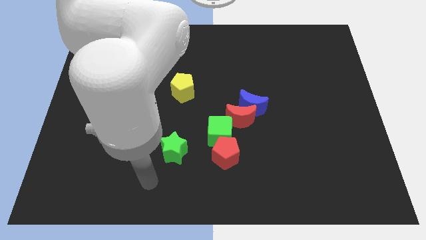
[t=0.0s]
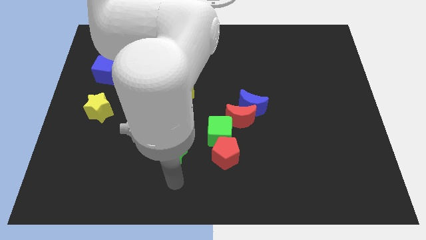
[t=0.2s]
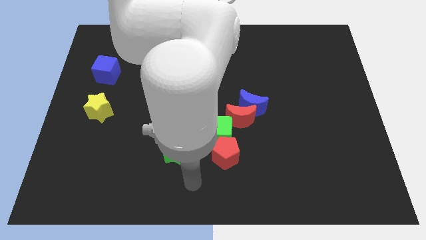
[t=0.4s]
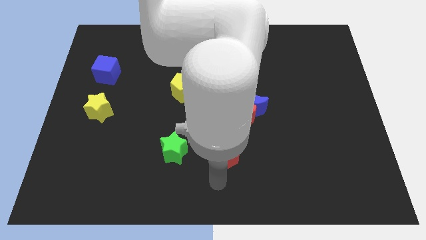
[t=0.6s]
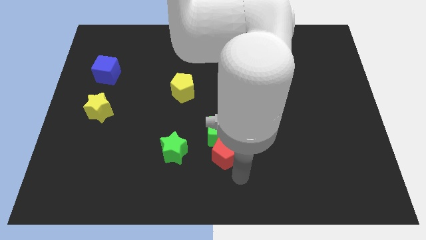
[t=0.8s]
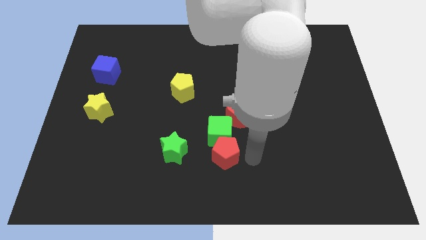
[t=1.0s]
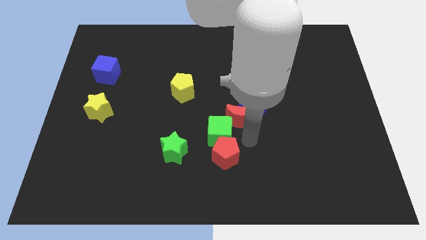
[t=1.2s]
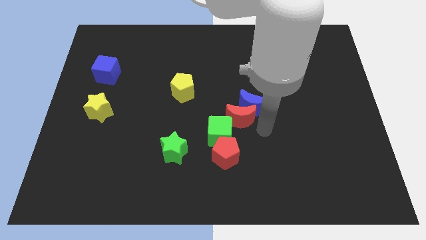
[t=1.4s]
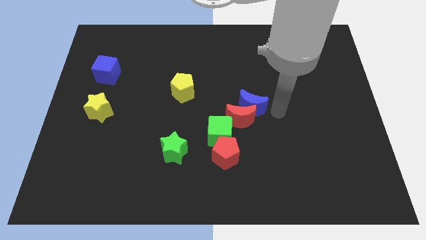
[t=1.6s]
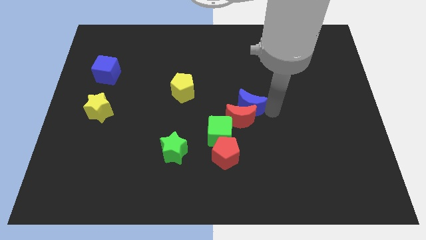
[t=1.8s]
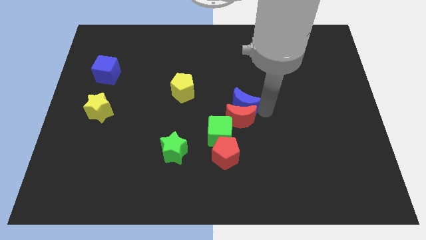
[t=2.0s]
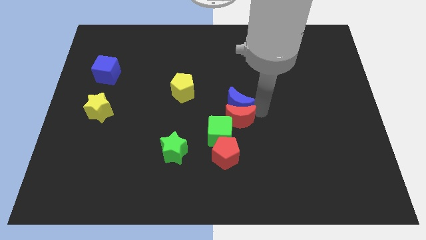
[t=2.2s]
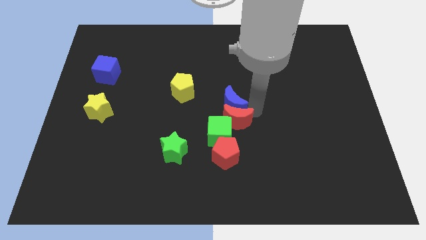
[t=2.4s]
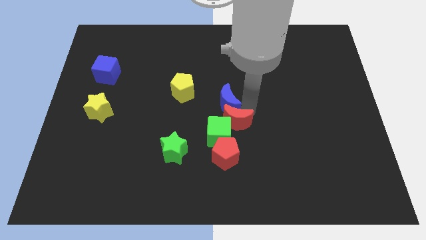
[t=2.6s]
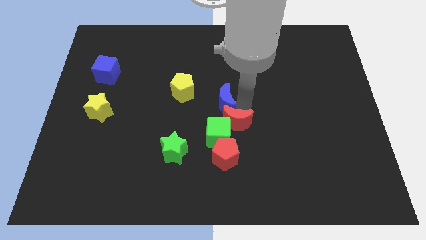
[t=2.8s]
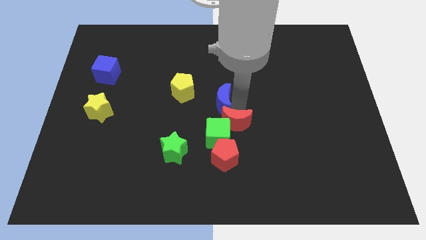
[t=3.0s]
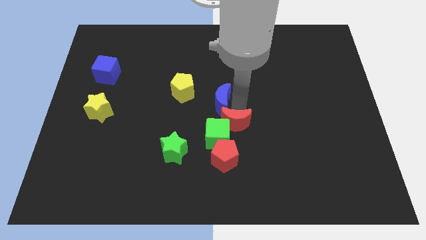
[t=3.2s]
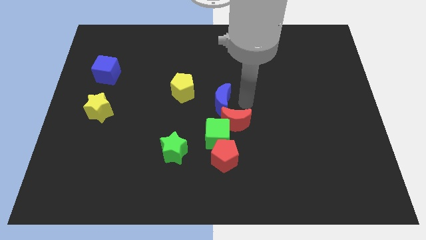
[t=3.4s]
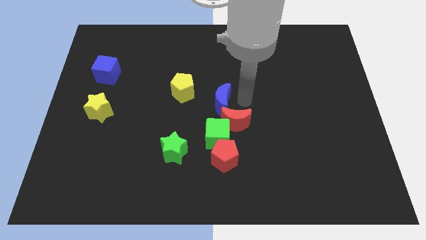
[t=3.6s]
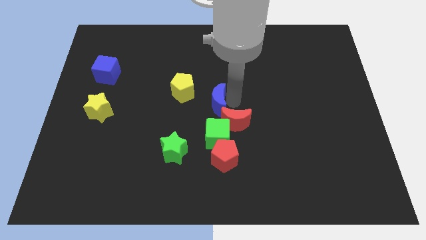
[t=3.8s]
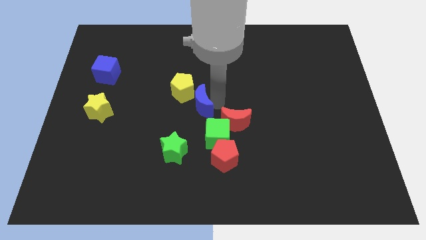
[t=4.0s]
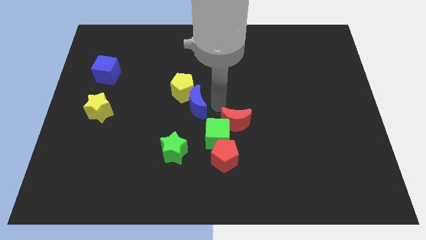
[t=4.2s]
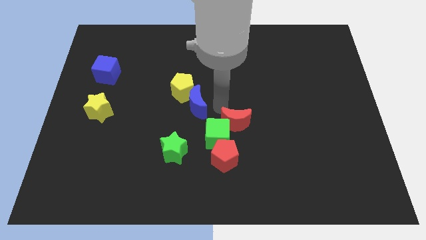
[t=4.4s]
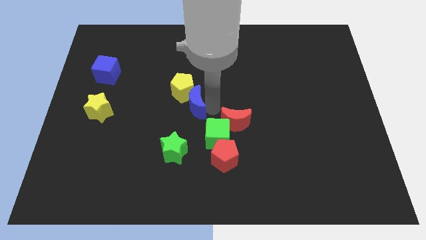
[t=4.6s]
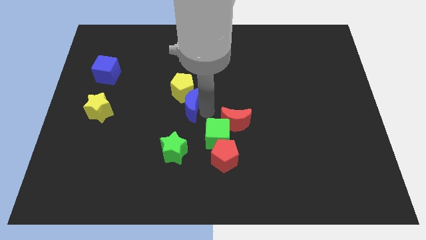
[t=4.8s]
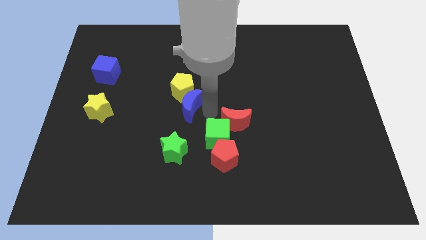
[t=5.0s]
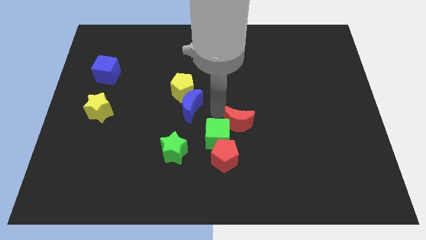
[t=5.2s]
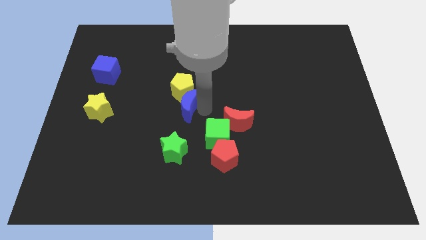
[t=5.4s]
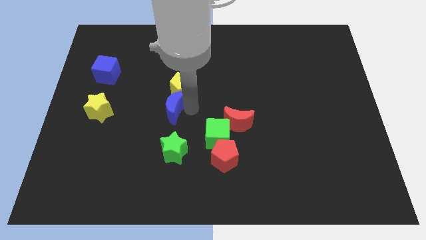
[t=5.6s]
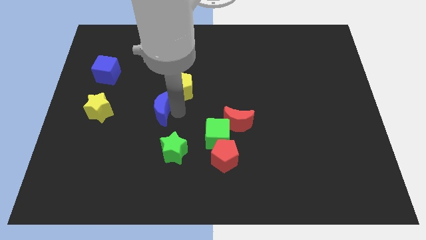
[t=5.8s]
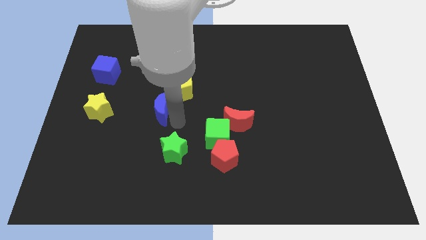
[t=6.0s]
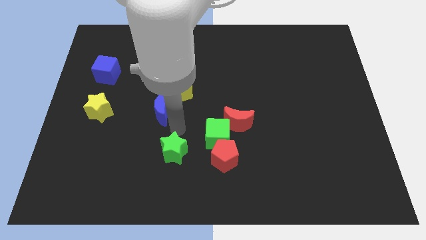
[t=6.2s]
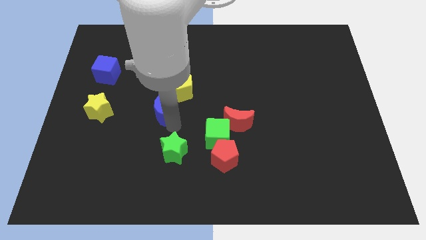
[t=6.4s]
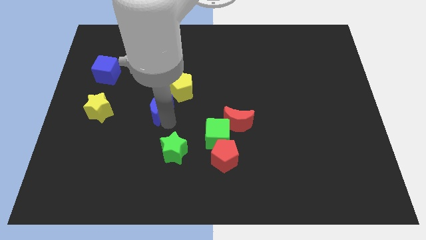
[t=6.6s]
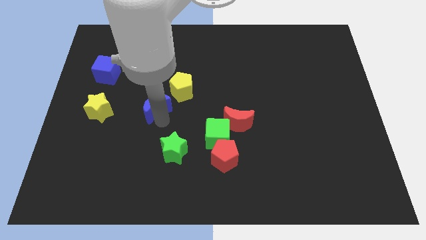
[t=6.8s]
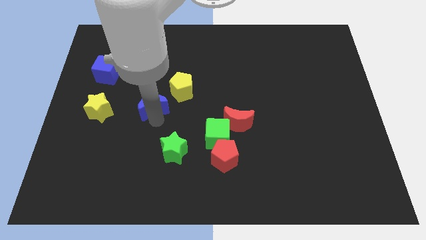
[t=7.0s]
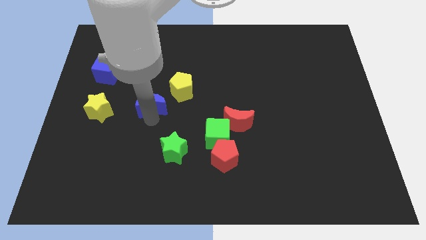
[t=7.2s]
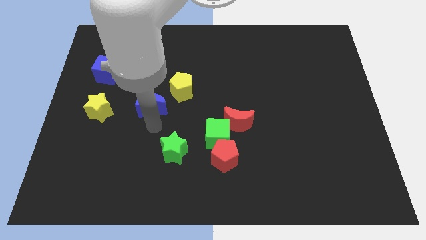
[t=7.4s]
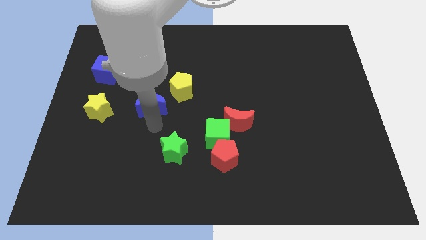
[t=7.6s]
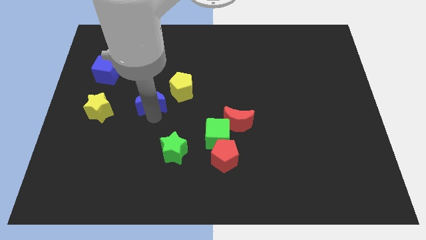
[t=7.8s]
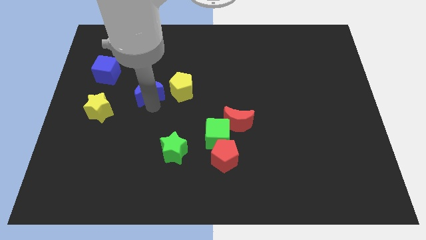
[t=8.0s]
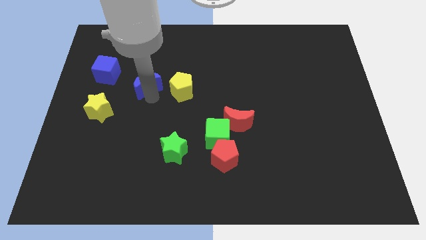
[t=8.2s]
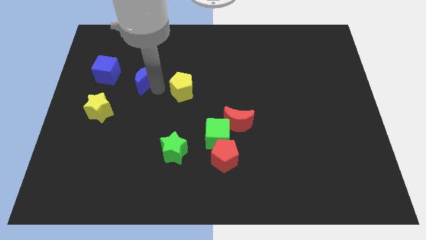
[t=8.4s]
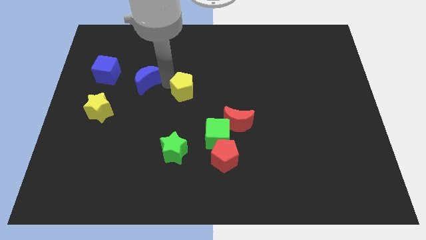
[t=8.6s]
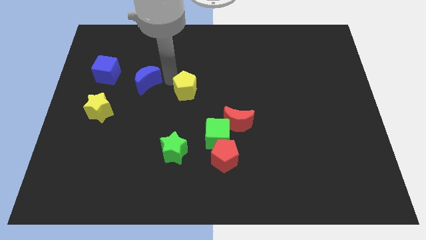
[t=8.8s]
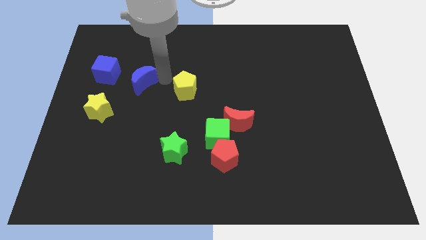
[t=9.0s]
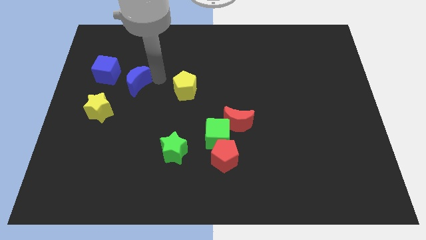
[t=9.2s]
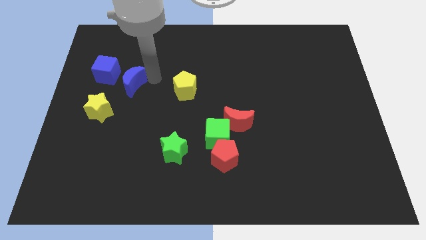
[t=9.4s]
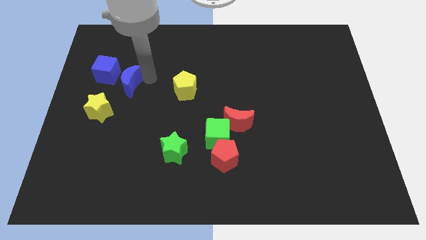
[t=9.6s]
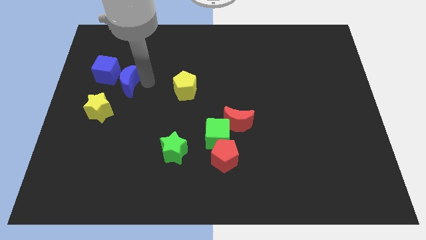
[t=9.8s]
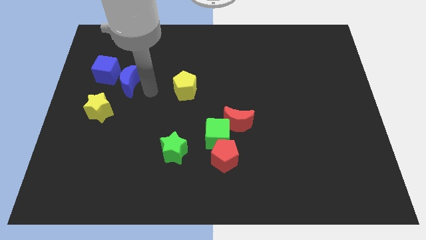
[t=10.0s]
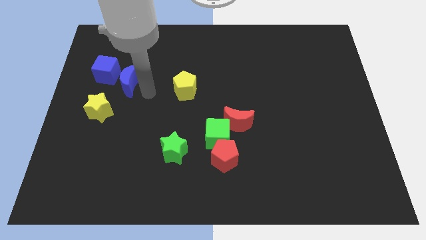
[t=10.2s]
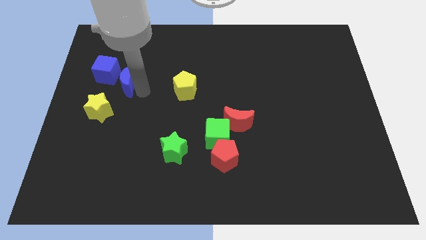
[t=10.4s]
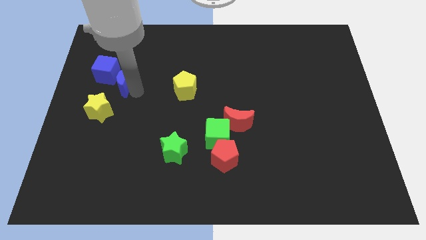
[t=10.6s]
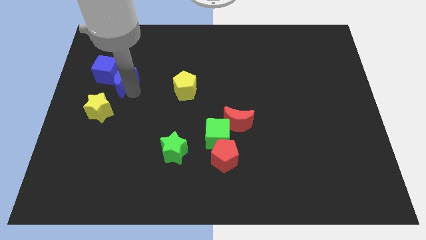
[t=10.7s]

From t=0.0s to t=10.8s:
push the blue moon to the blue cube

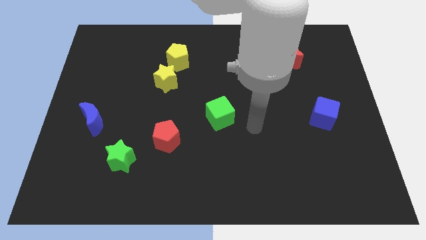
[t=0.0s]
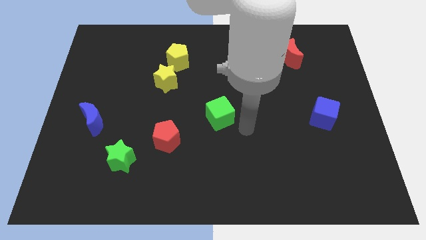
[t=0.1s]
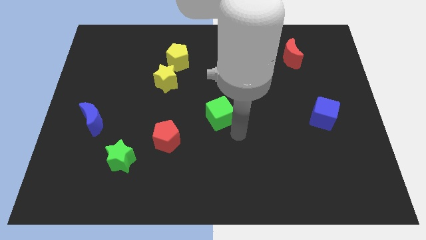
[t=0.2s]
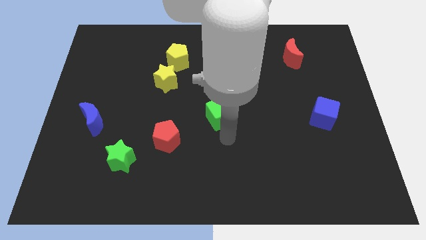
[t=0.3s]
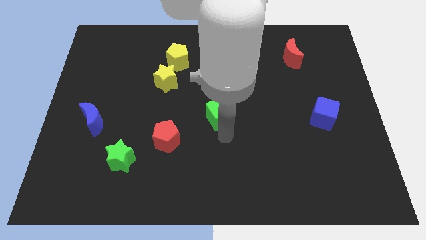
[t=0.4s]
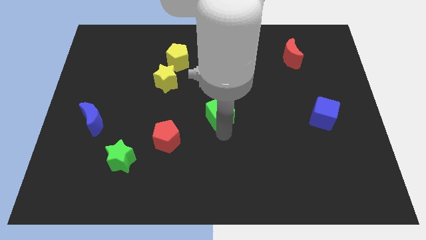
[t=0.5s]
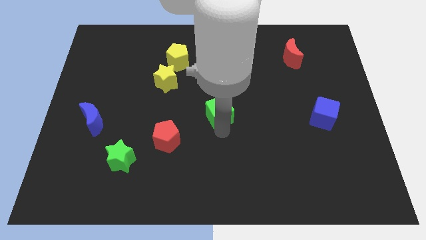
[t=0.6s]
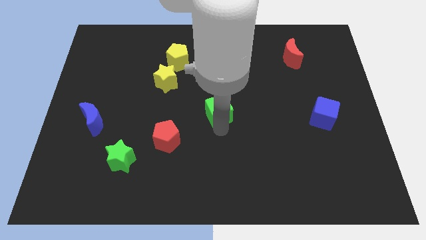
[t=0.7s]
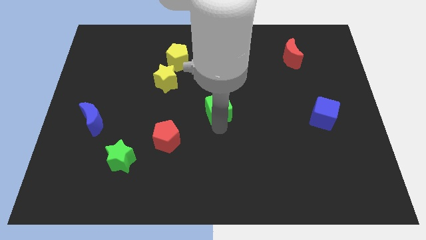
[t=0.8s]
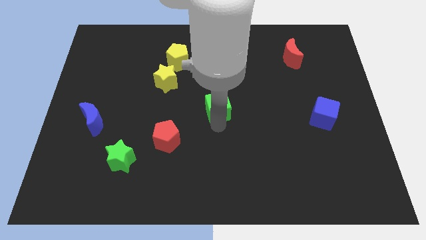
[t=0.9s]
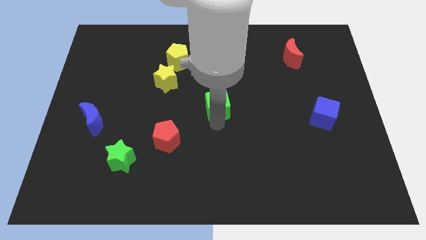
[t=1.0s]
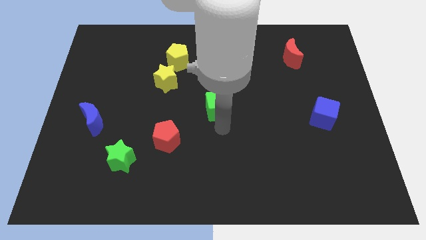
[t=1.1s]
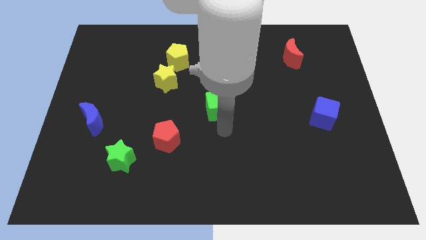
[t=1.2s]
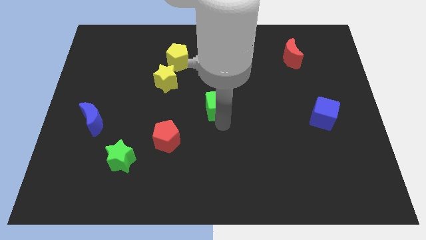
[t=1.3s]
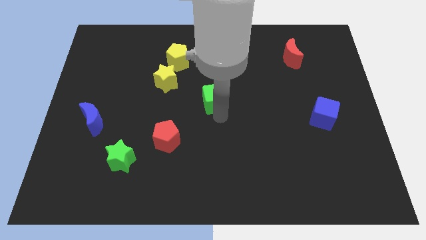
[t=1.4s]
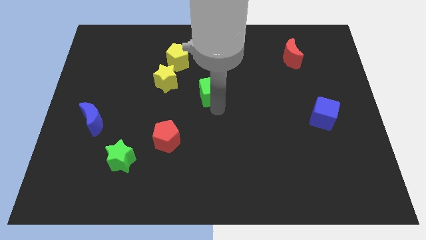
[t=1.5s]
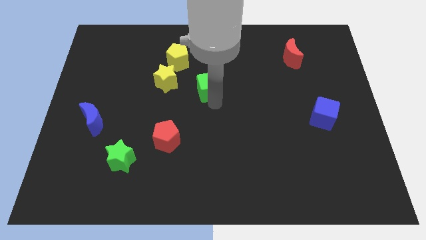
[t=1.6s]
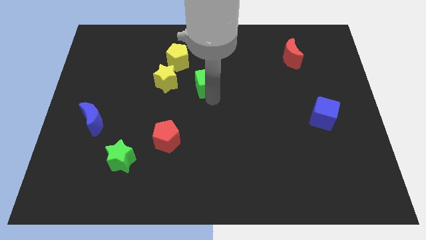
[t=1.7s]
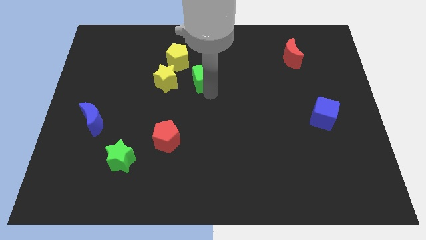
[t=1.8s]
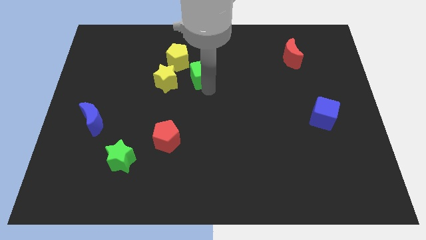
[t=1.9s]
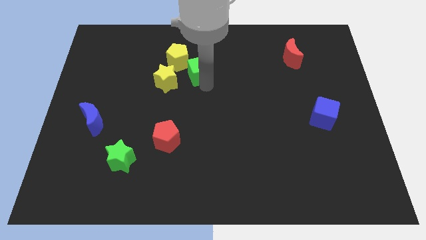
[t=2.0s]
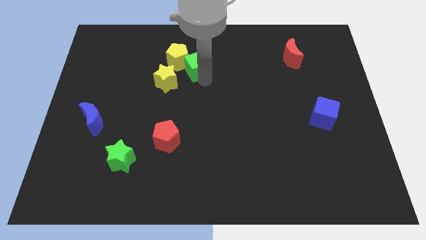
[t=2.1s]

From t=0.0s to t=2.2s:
push the green cube close to the yellow pentagon
